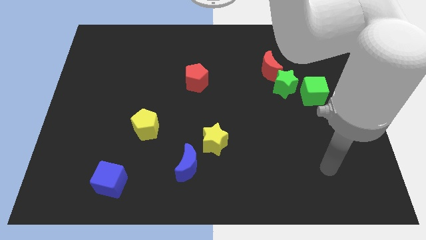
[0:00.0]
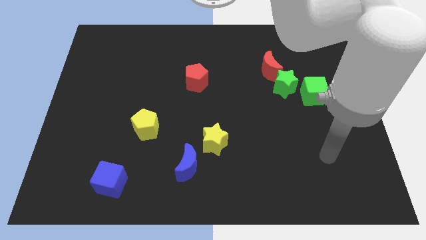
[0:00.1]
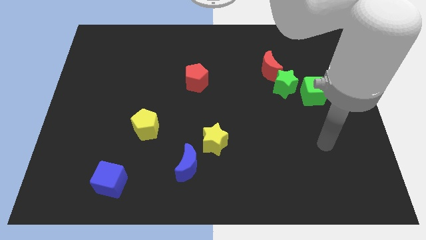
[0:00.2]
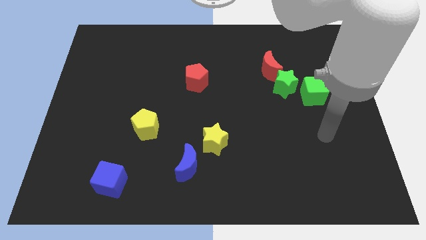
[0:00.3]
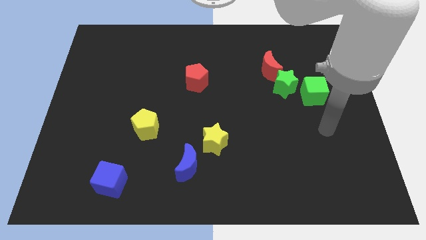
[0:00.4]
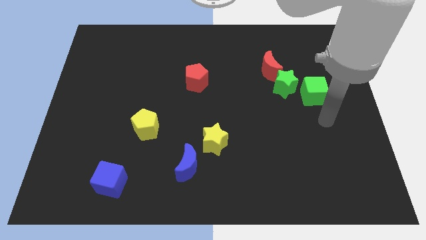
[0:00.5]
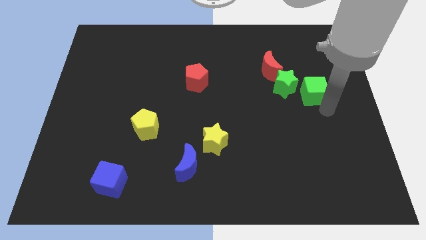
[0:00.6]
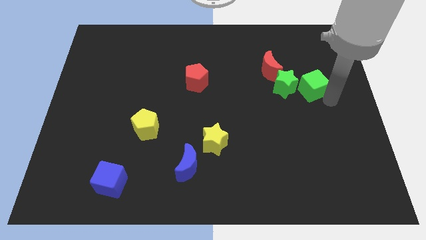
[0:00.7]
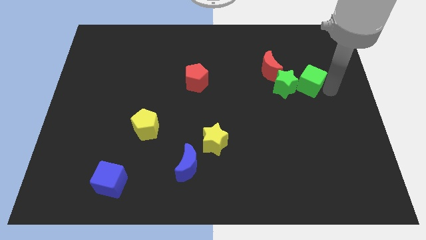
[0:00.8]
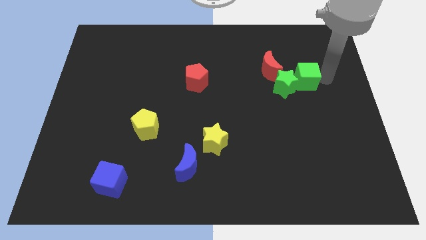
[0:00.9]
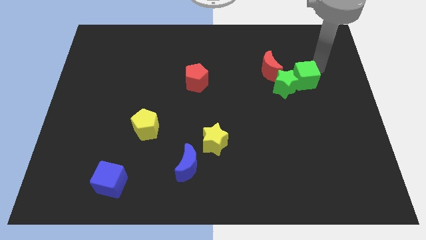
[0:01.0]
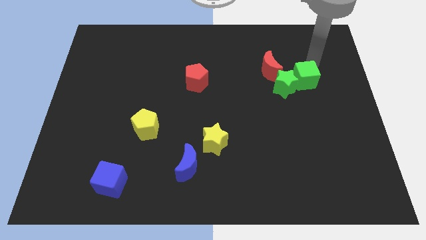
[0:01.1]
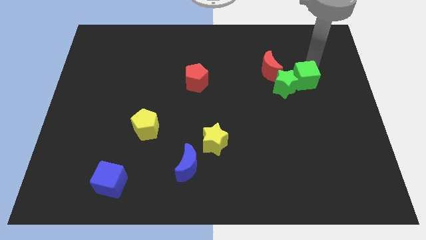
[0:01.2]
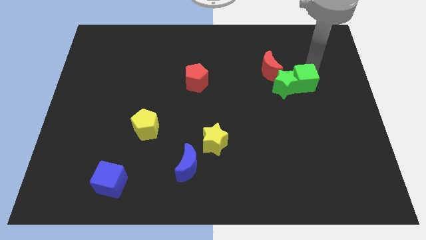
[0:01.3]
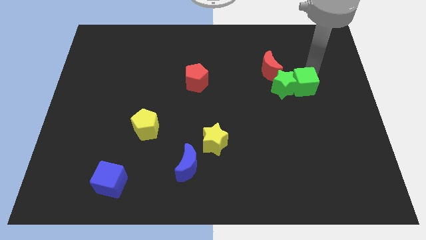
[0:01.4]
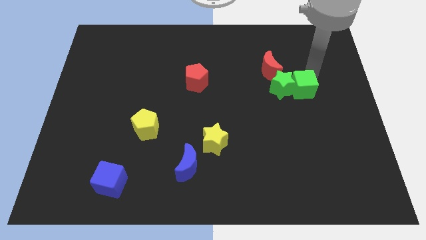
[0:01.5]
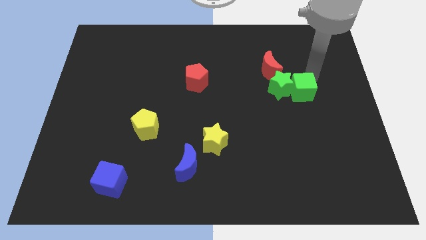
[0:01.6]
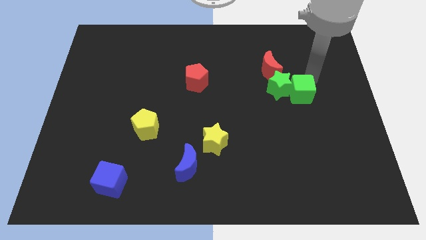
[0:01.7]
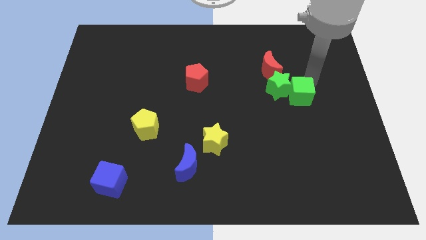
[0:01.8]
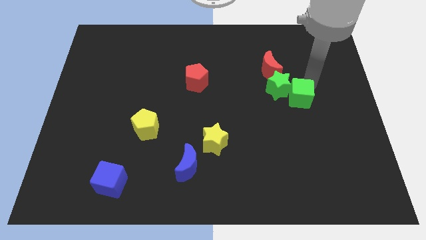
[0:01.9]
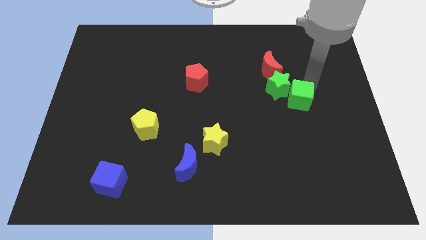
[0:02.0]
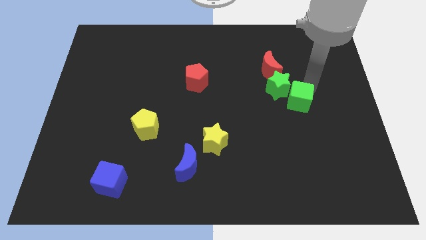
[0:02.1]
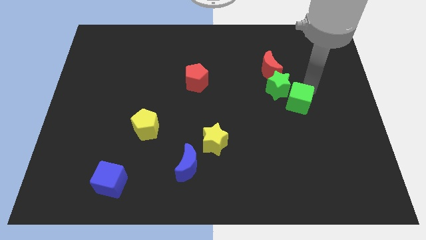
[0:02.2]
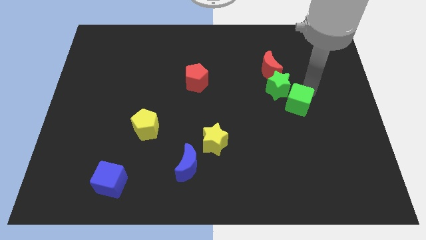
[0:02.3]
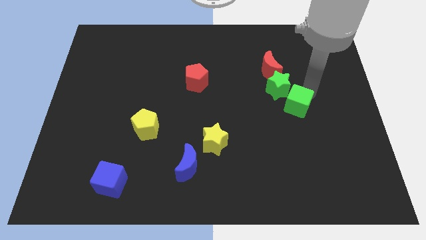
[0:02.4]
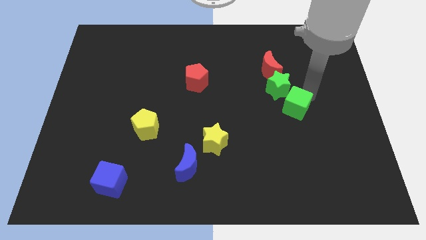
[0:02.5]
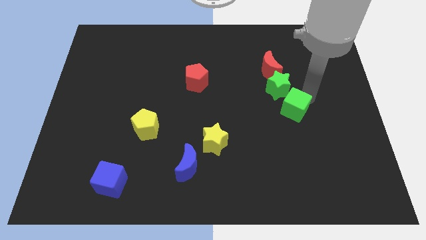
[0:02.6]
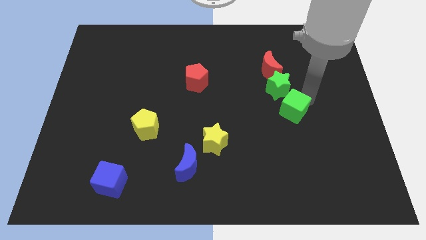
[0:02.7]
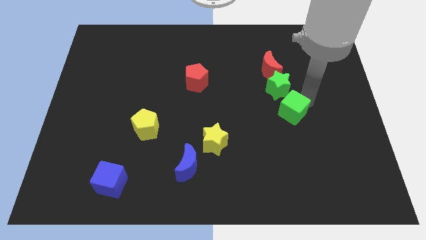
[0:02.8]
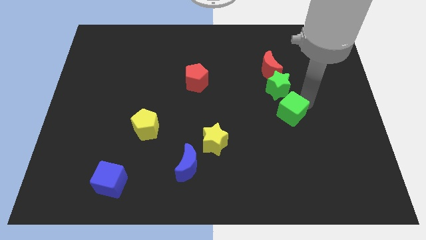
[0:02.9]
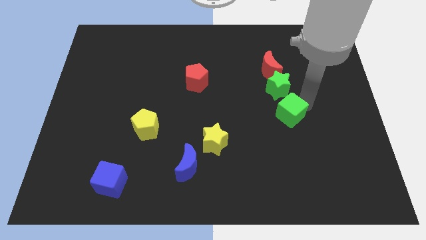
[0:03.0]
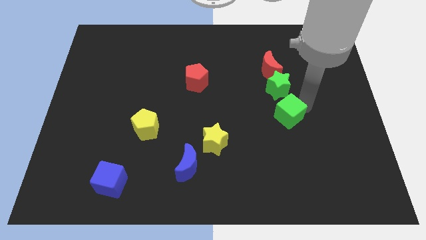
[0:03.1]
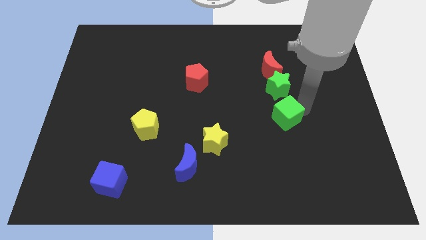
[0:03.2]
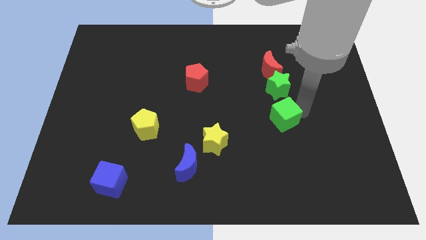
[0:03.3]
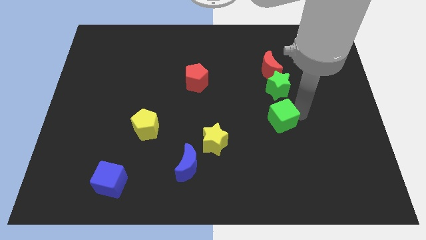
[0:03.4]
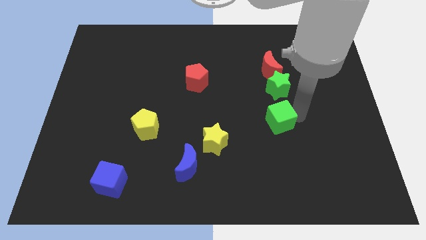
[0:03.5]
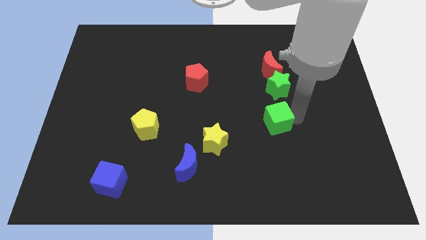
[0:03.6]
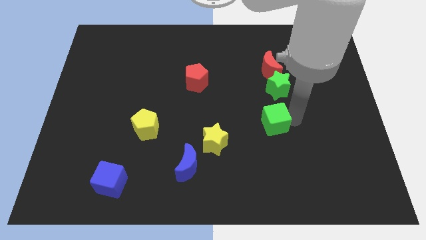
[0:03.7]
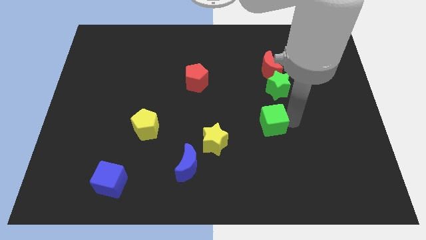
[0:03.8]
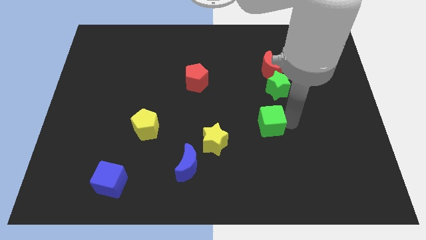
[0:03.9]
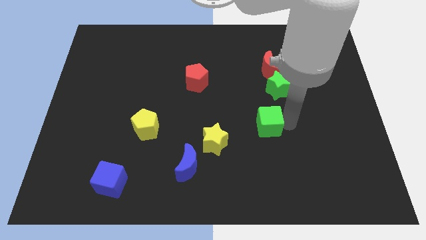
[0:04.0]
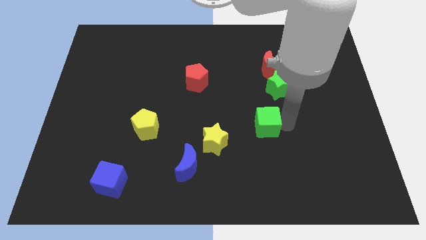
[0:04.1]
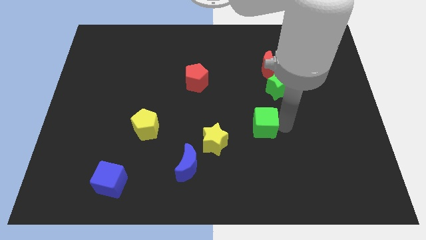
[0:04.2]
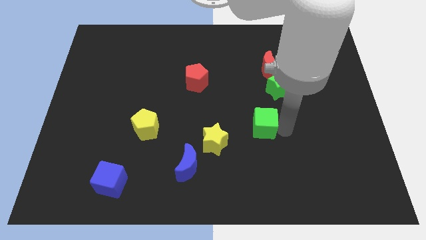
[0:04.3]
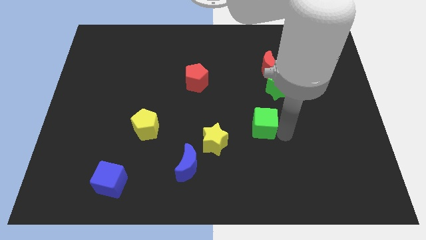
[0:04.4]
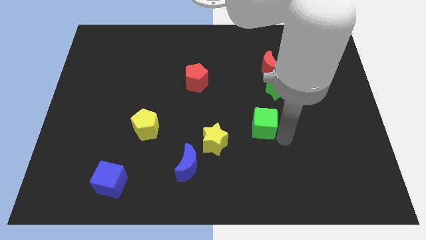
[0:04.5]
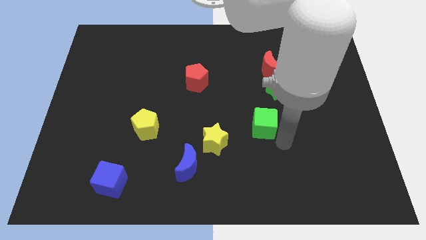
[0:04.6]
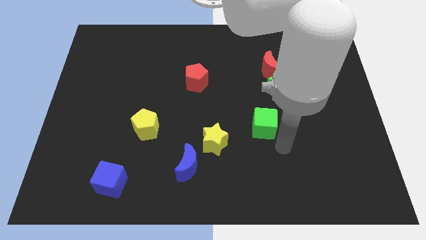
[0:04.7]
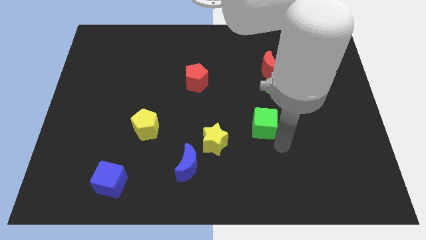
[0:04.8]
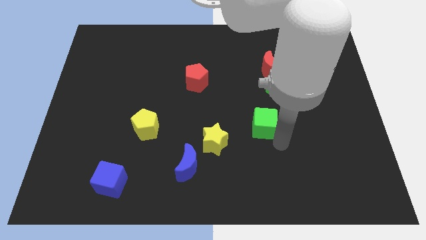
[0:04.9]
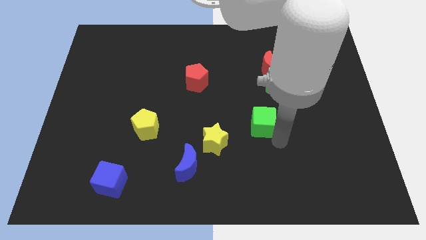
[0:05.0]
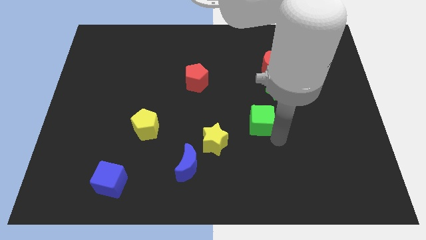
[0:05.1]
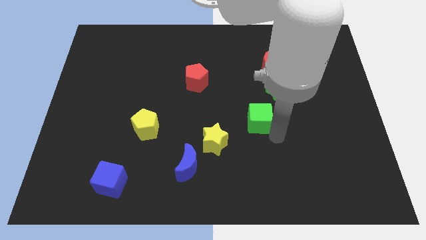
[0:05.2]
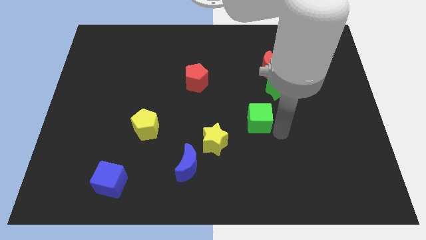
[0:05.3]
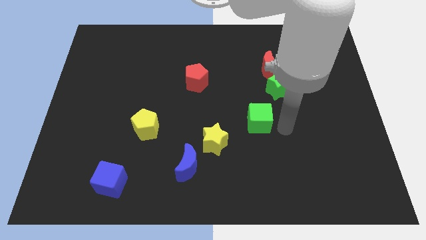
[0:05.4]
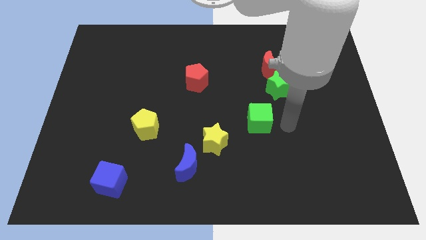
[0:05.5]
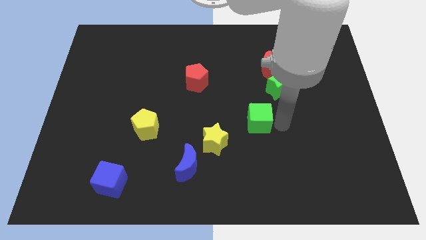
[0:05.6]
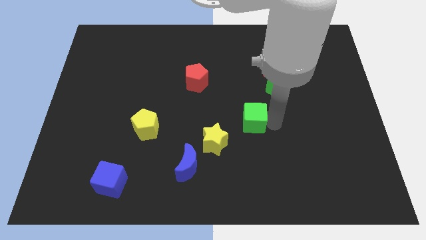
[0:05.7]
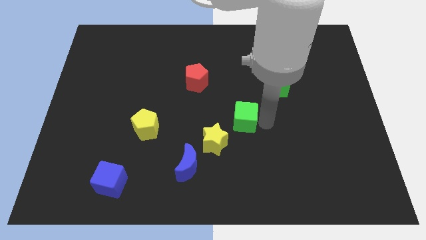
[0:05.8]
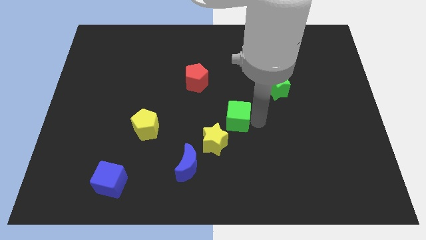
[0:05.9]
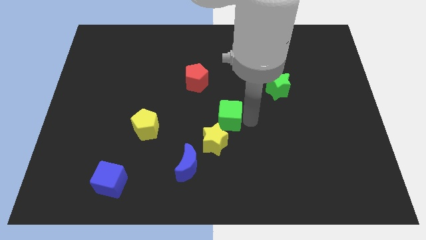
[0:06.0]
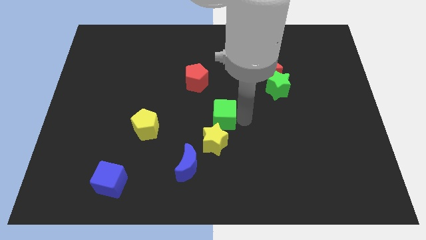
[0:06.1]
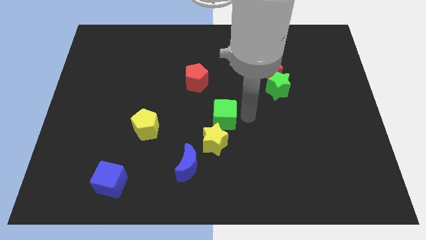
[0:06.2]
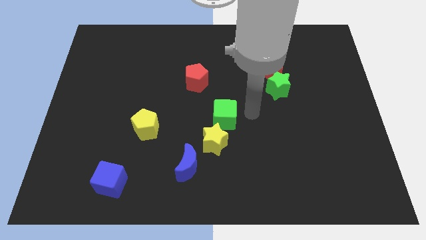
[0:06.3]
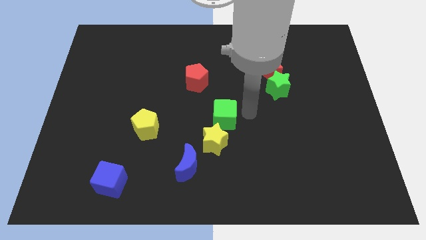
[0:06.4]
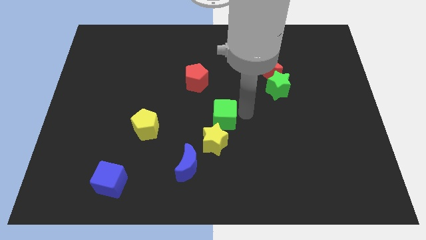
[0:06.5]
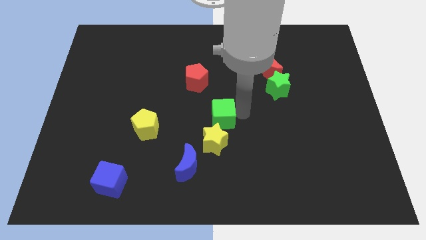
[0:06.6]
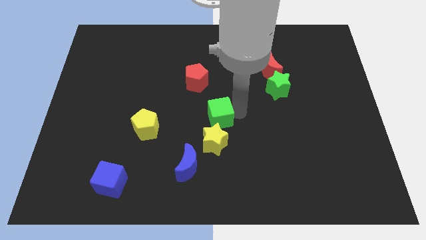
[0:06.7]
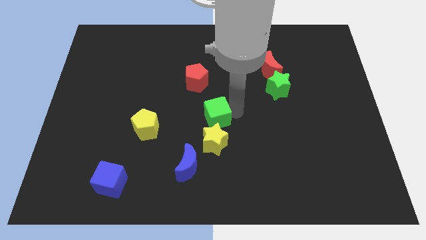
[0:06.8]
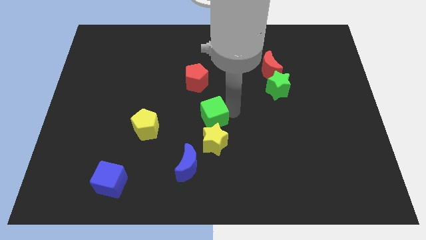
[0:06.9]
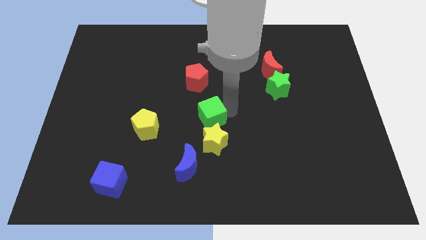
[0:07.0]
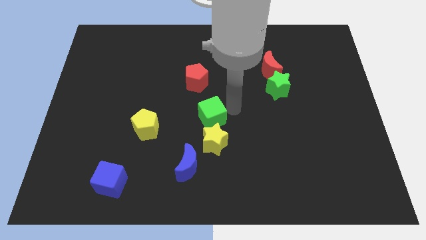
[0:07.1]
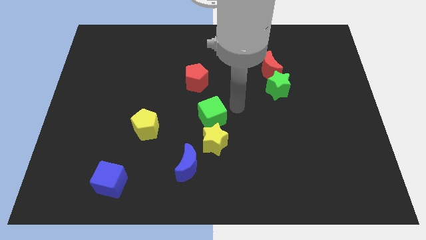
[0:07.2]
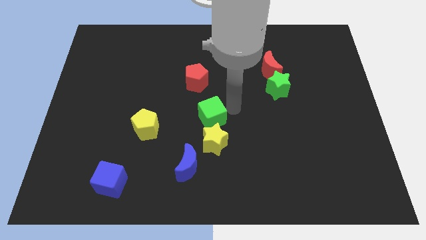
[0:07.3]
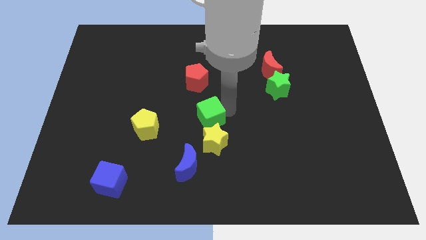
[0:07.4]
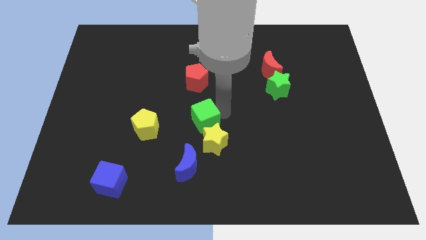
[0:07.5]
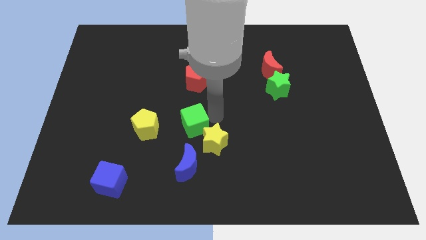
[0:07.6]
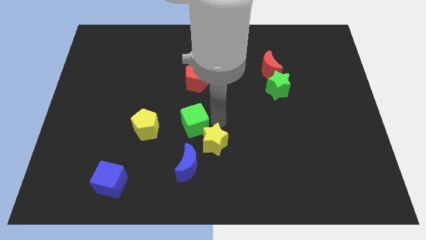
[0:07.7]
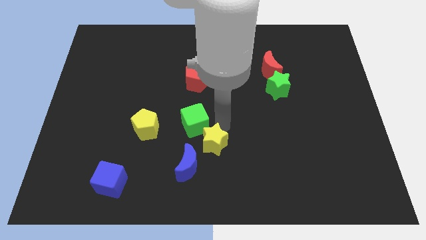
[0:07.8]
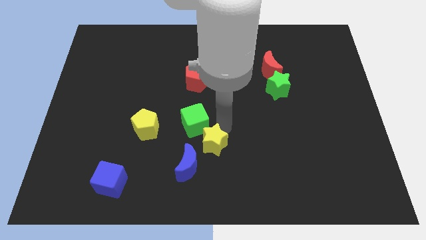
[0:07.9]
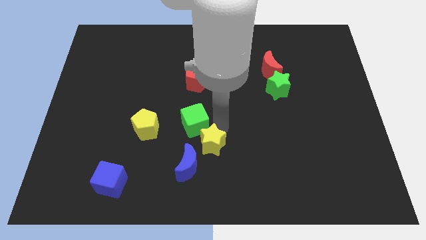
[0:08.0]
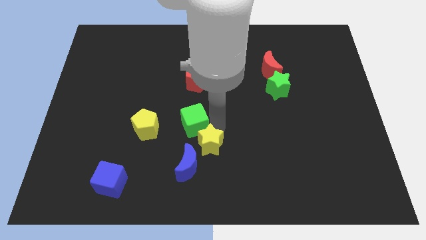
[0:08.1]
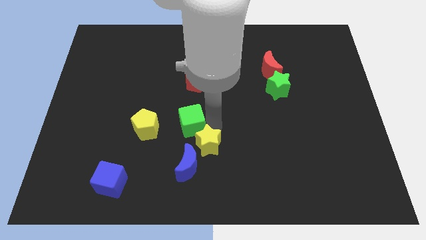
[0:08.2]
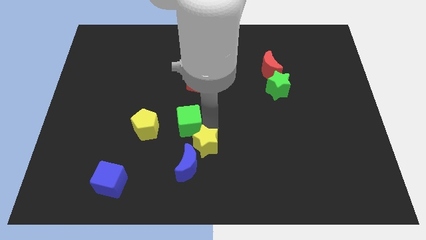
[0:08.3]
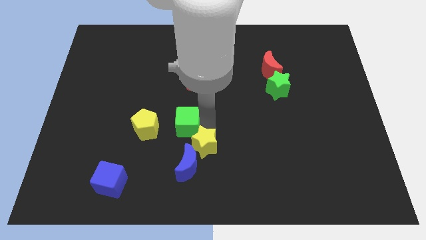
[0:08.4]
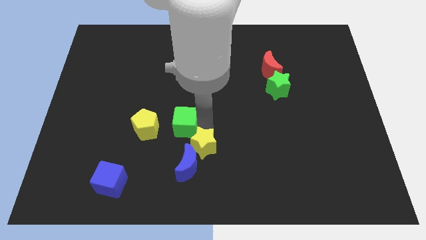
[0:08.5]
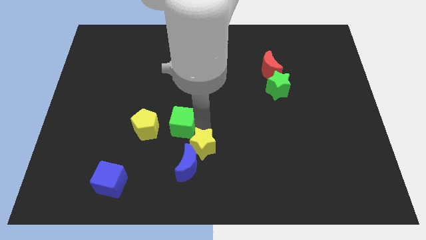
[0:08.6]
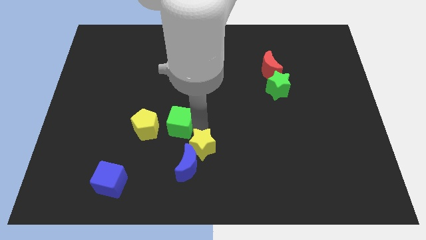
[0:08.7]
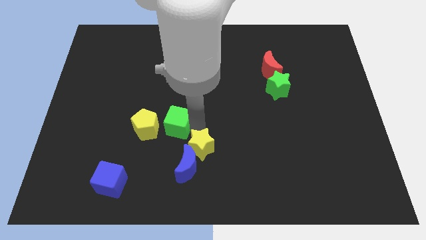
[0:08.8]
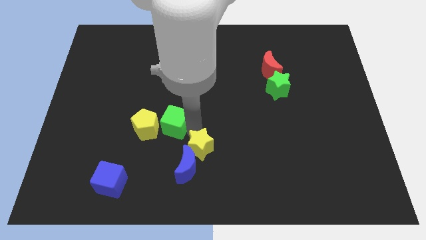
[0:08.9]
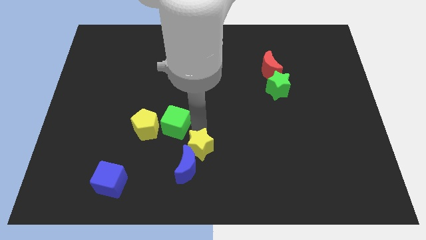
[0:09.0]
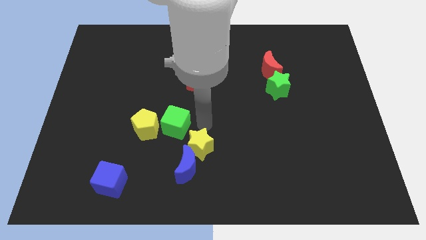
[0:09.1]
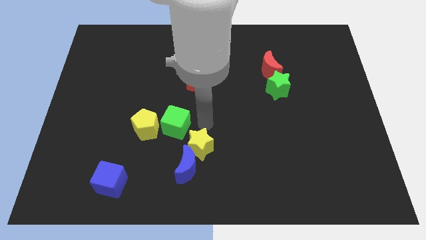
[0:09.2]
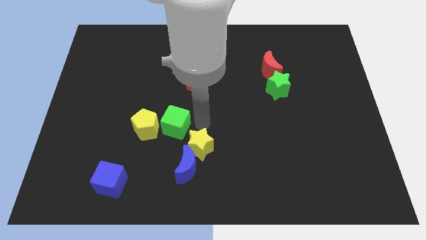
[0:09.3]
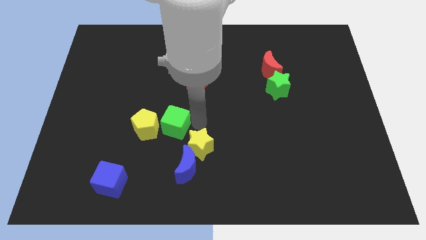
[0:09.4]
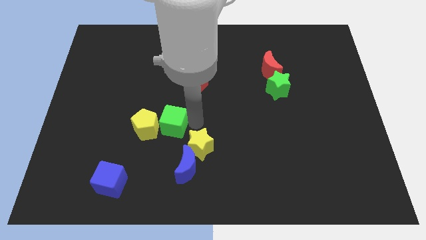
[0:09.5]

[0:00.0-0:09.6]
move the green cube to the yellow pentagon
